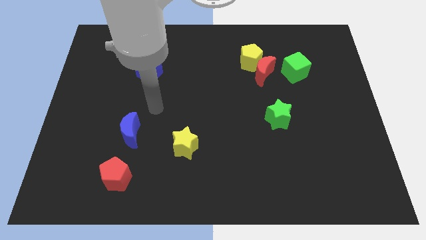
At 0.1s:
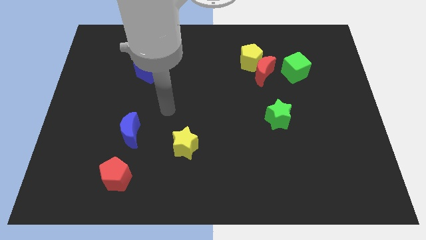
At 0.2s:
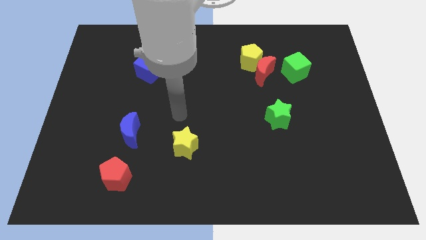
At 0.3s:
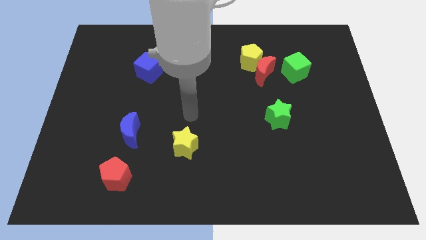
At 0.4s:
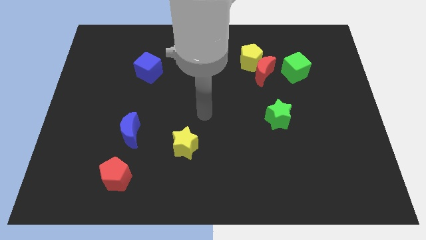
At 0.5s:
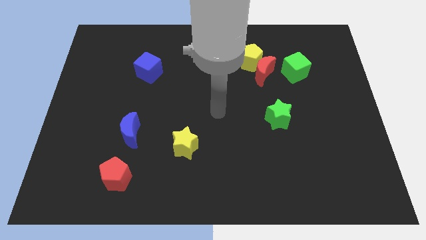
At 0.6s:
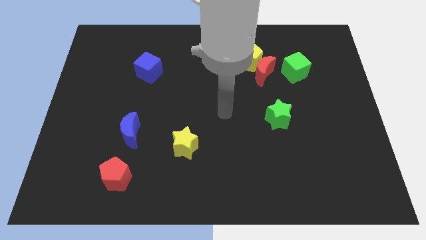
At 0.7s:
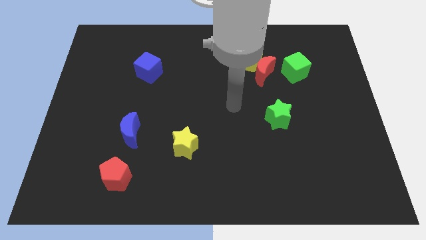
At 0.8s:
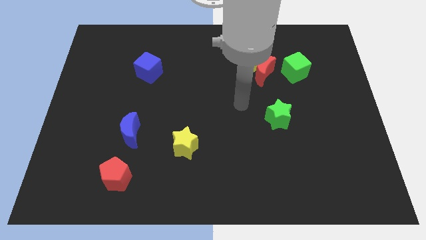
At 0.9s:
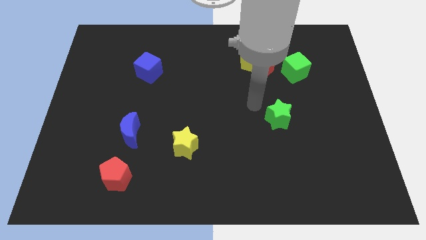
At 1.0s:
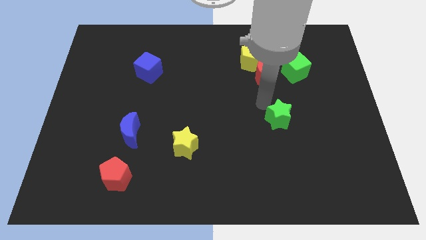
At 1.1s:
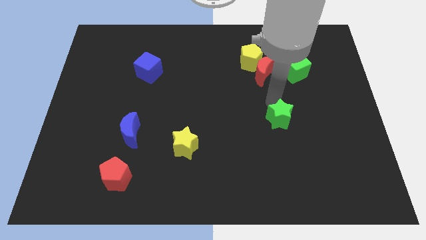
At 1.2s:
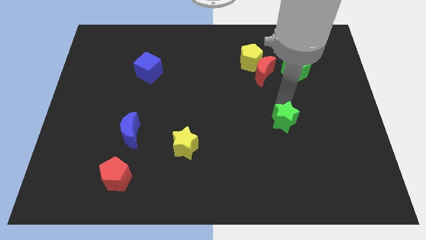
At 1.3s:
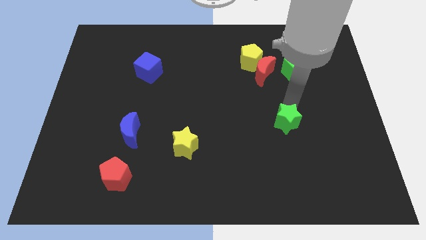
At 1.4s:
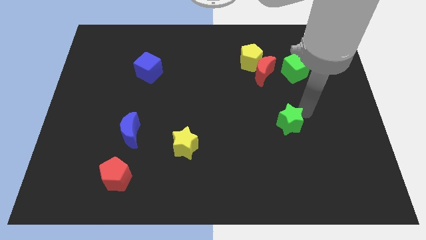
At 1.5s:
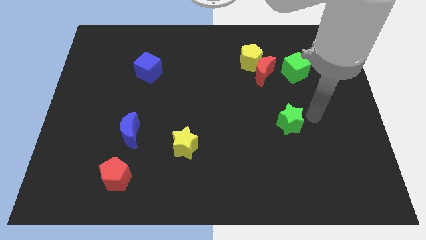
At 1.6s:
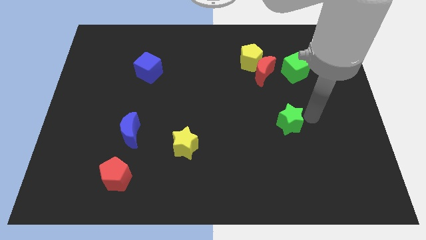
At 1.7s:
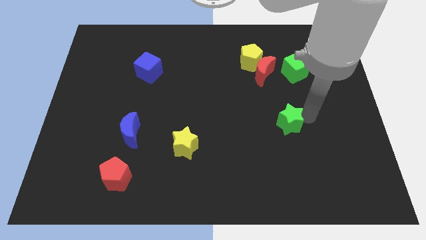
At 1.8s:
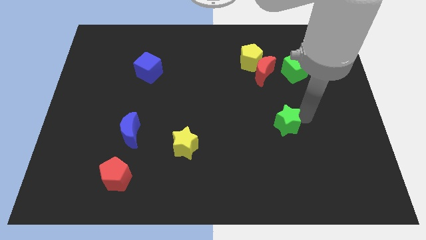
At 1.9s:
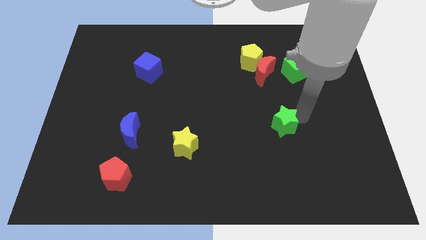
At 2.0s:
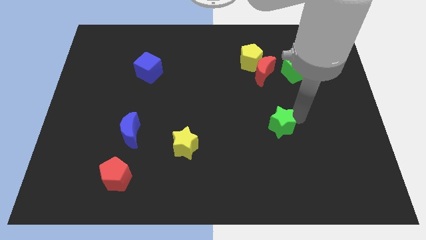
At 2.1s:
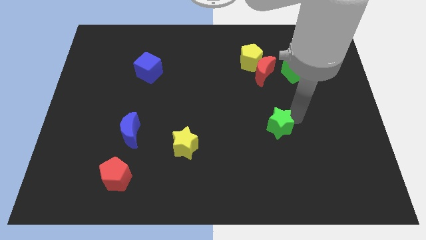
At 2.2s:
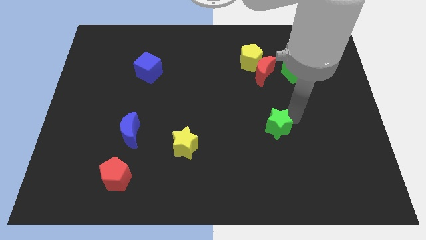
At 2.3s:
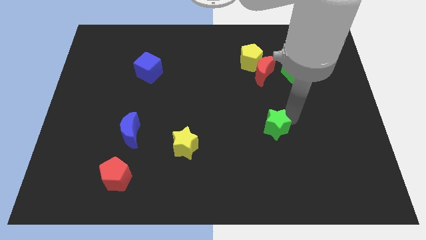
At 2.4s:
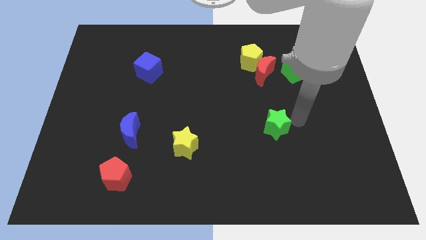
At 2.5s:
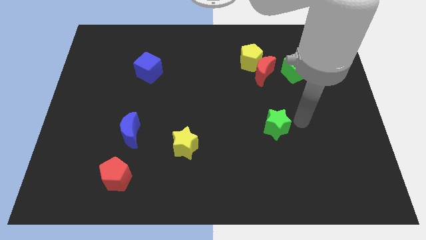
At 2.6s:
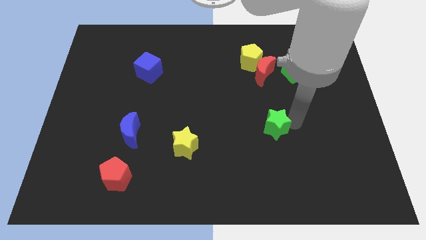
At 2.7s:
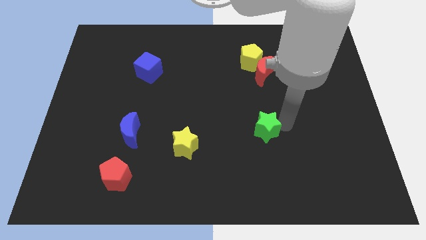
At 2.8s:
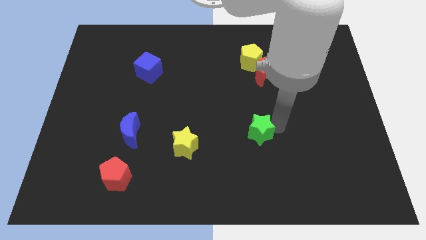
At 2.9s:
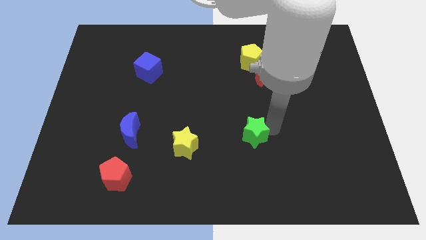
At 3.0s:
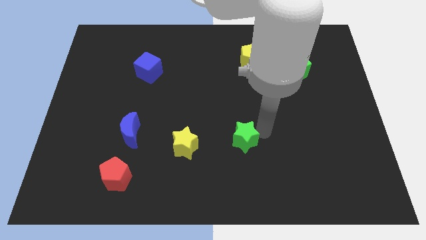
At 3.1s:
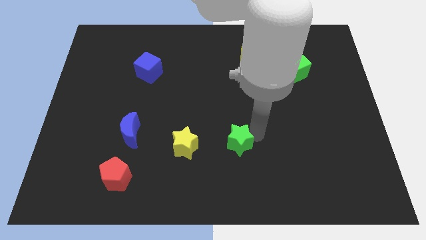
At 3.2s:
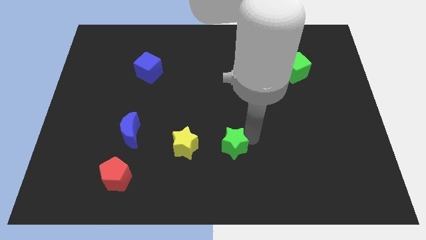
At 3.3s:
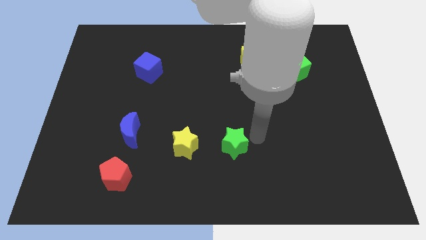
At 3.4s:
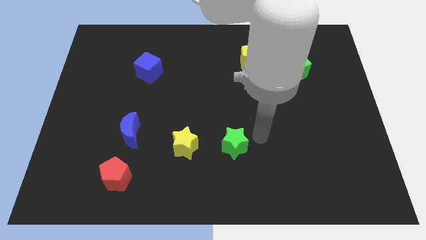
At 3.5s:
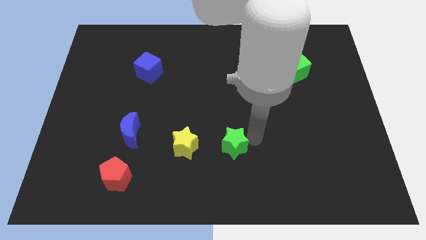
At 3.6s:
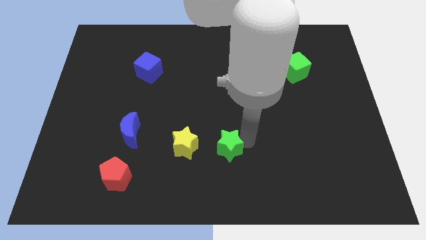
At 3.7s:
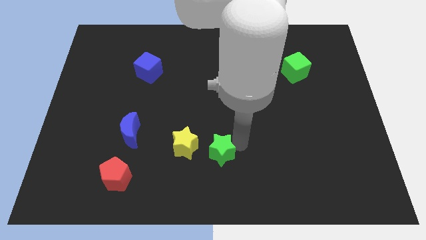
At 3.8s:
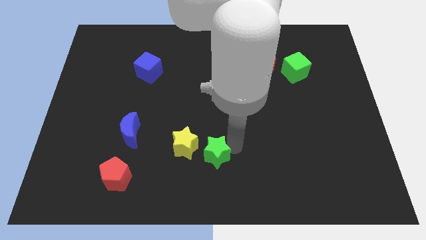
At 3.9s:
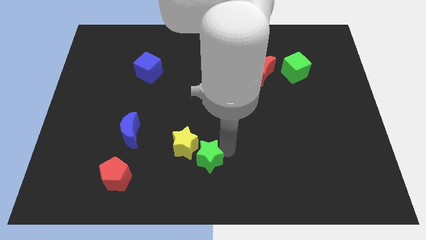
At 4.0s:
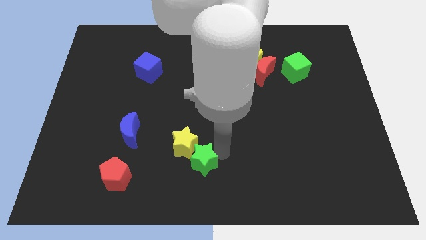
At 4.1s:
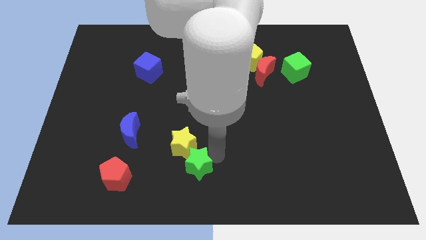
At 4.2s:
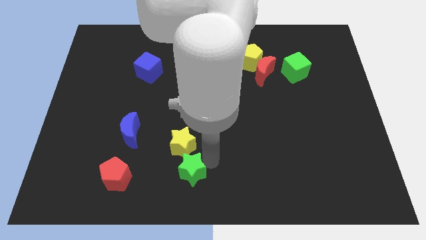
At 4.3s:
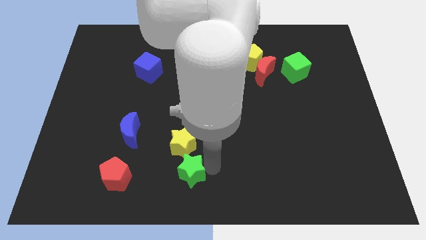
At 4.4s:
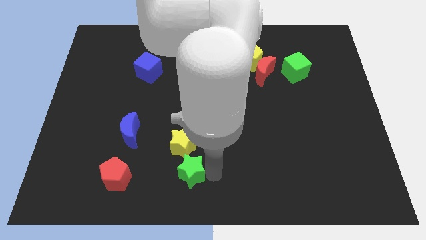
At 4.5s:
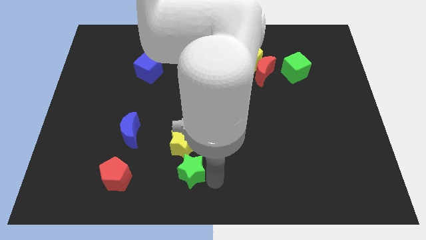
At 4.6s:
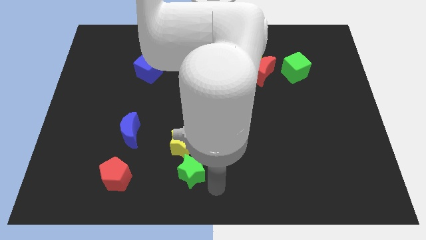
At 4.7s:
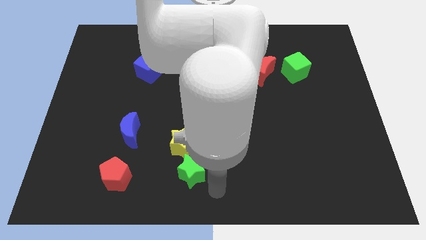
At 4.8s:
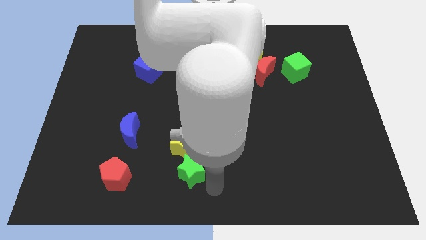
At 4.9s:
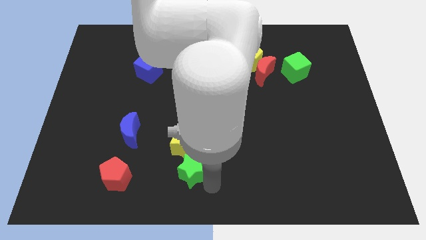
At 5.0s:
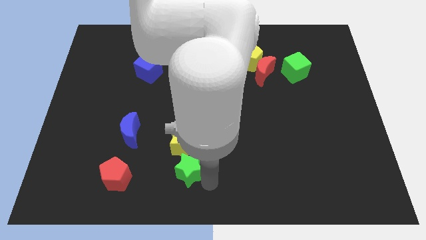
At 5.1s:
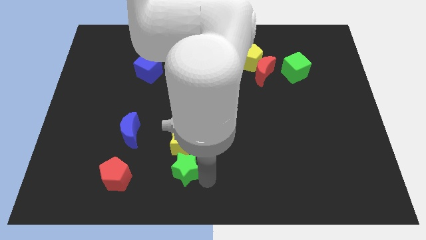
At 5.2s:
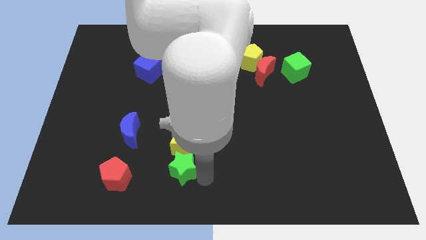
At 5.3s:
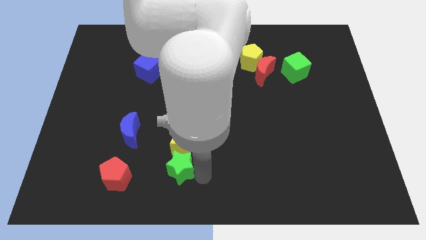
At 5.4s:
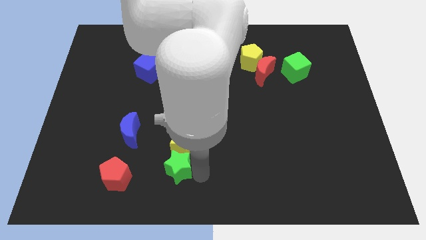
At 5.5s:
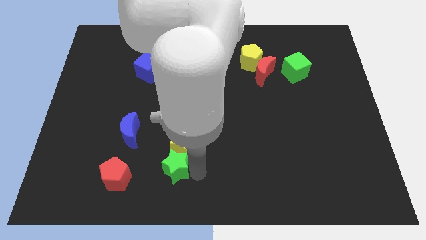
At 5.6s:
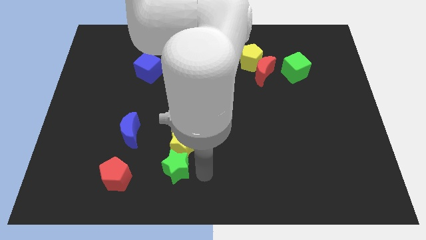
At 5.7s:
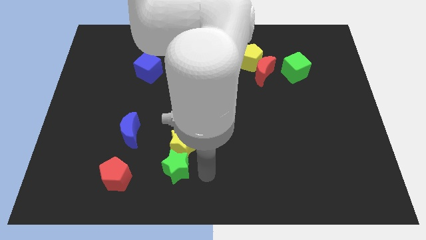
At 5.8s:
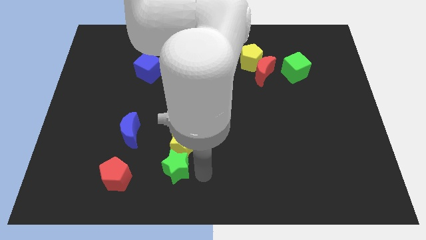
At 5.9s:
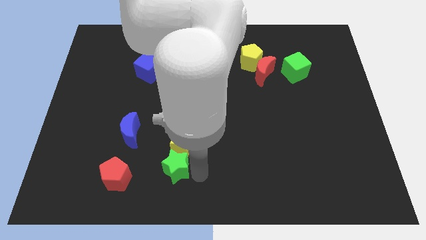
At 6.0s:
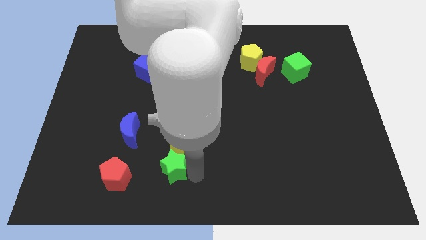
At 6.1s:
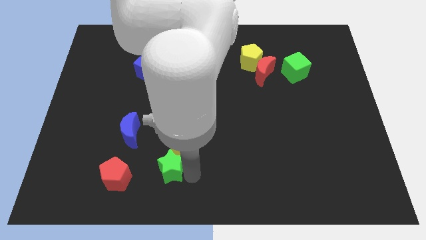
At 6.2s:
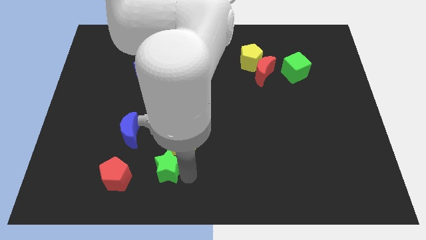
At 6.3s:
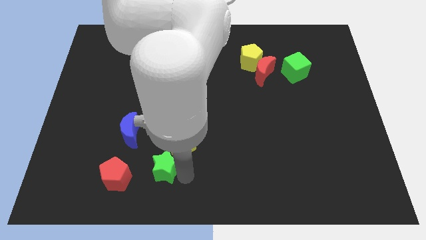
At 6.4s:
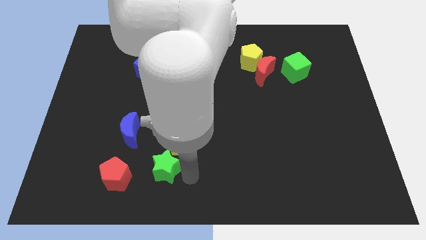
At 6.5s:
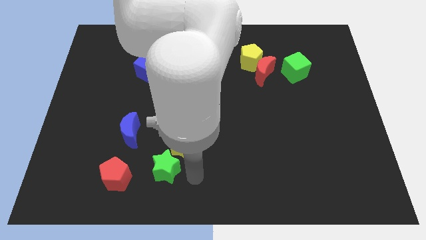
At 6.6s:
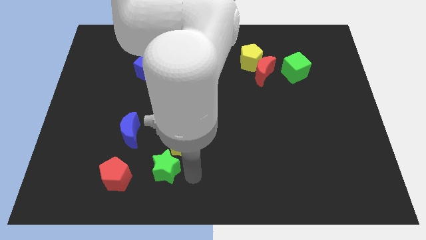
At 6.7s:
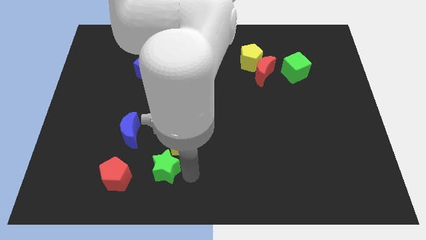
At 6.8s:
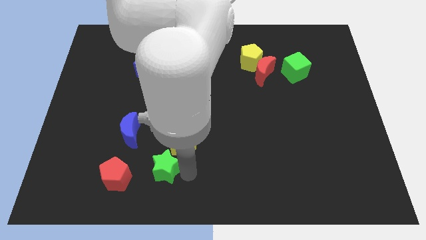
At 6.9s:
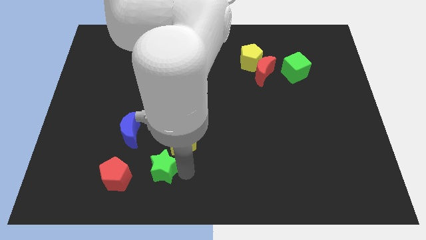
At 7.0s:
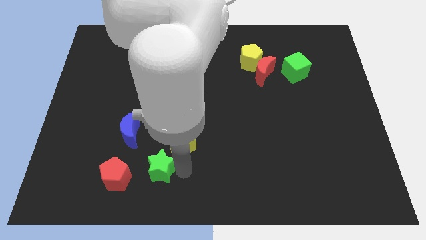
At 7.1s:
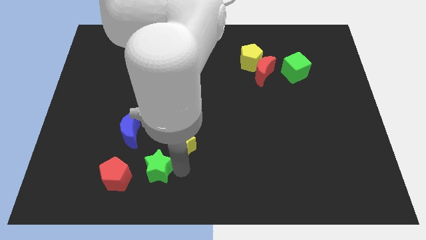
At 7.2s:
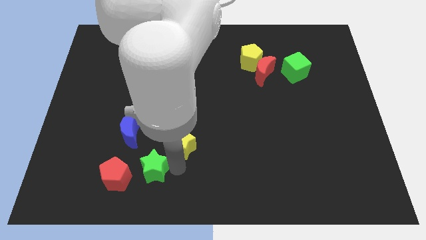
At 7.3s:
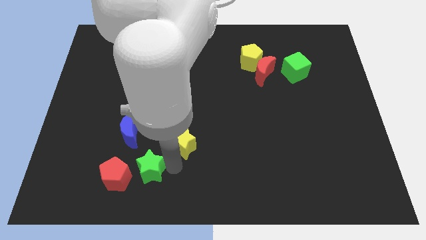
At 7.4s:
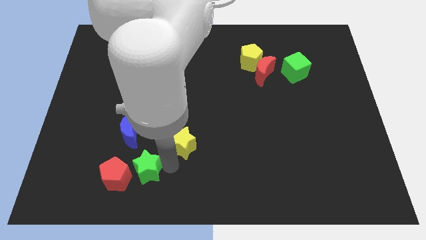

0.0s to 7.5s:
push the green star next to the red pentagon
